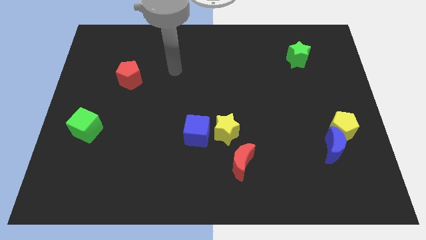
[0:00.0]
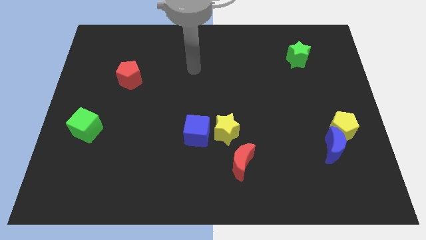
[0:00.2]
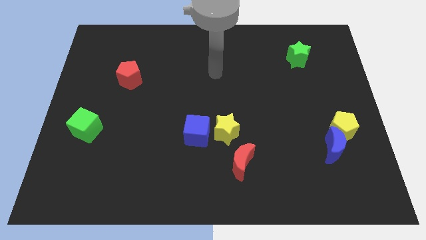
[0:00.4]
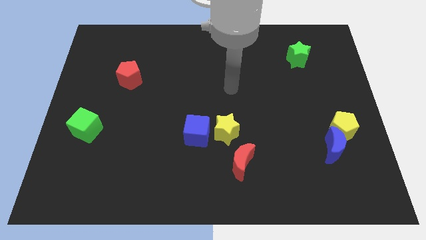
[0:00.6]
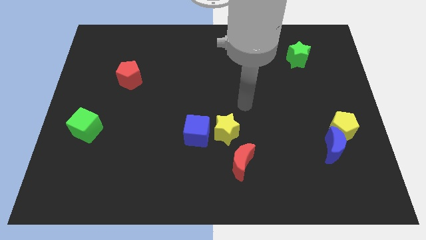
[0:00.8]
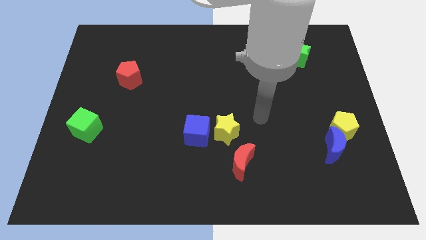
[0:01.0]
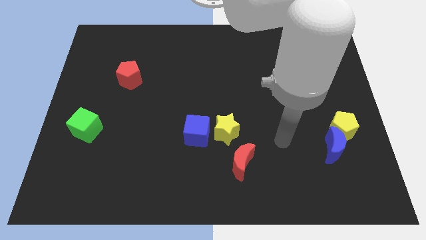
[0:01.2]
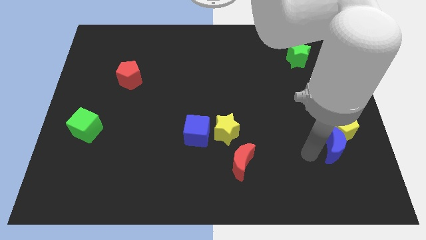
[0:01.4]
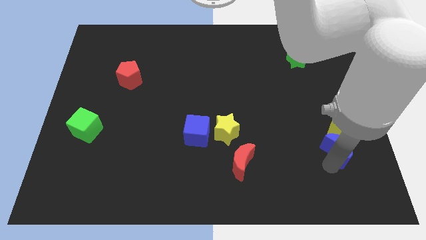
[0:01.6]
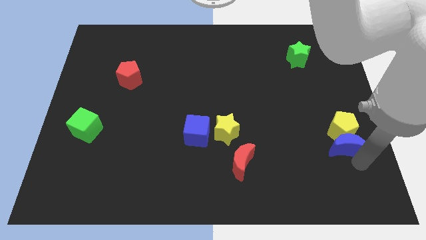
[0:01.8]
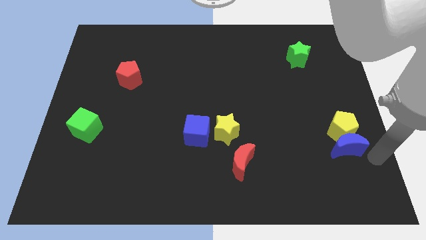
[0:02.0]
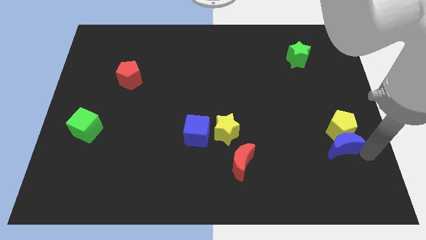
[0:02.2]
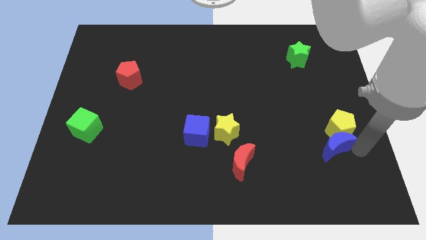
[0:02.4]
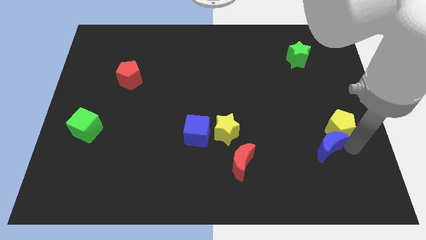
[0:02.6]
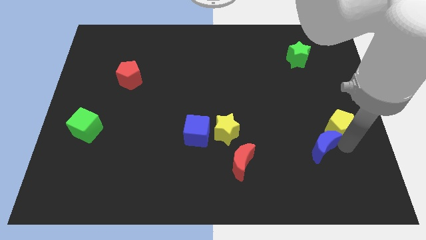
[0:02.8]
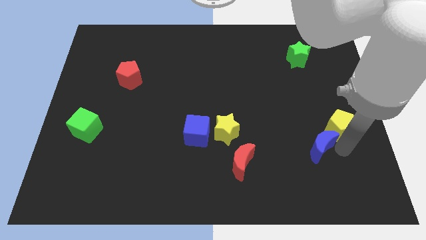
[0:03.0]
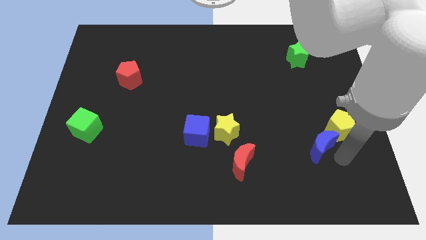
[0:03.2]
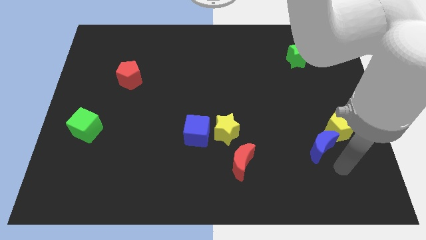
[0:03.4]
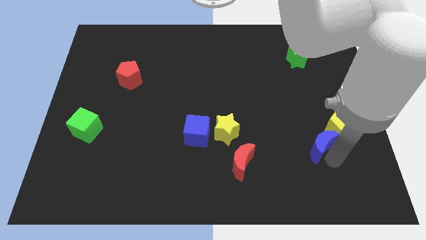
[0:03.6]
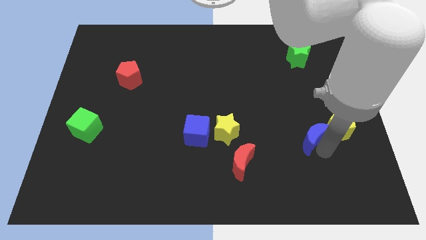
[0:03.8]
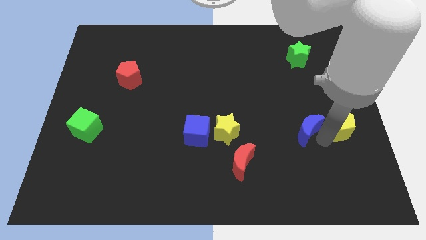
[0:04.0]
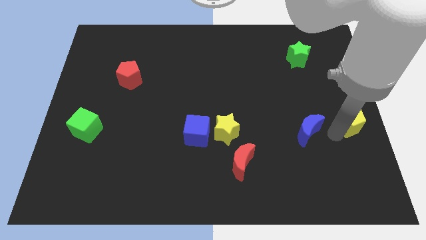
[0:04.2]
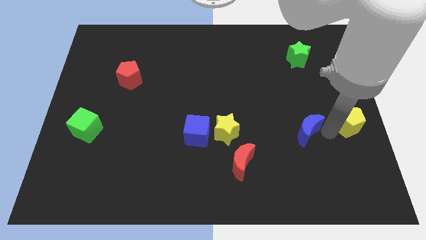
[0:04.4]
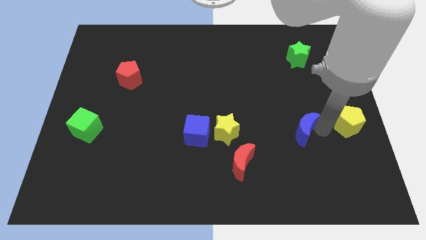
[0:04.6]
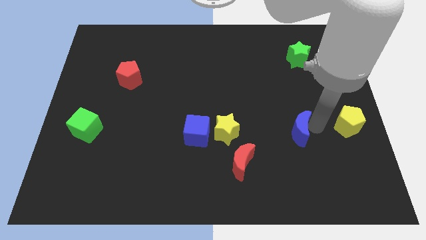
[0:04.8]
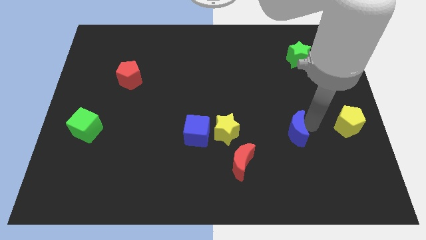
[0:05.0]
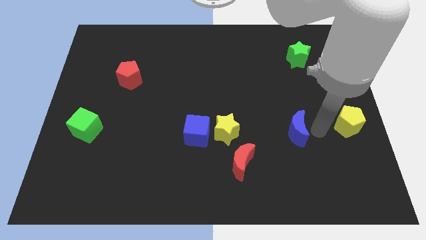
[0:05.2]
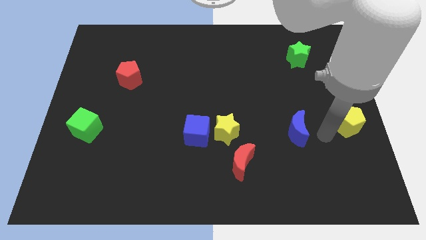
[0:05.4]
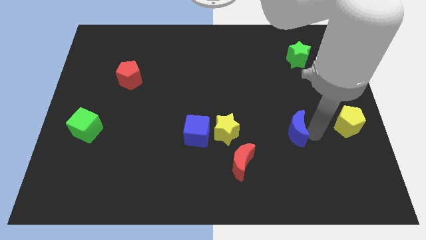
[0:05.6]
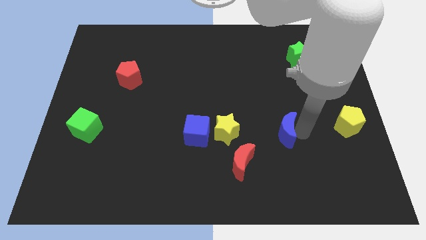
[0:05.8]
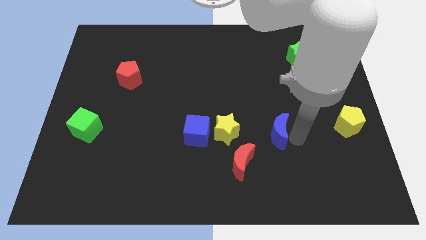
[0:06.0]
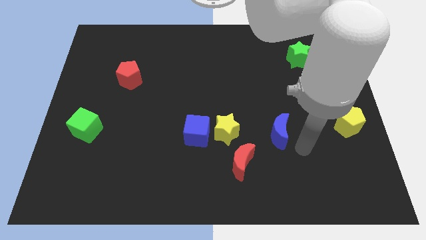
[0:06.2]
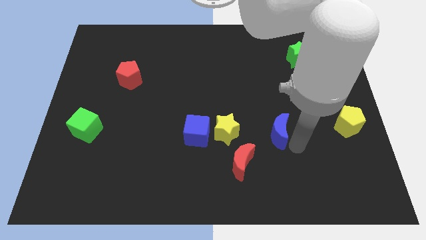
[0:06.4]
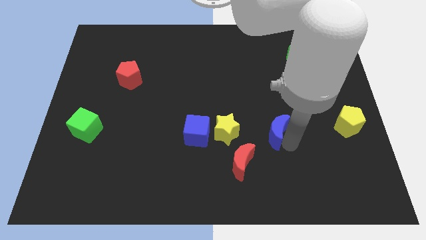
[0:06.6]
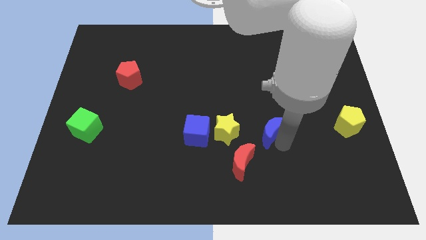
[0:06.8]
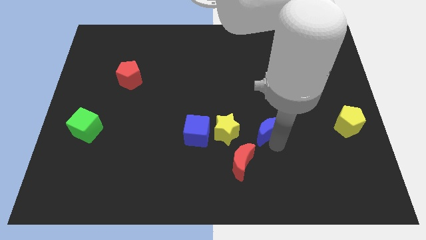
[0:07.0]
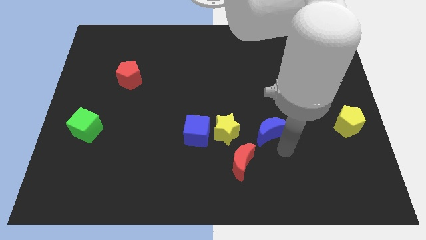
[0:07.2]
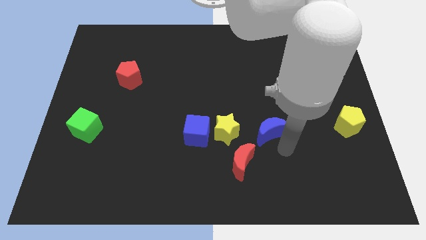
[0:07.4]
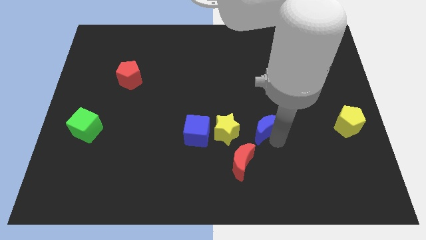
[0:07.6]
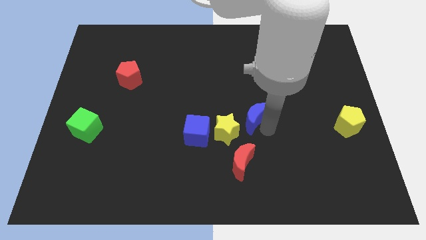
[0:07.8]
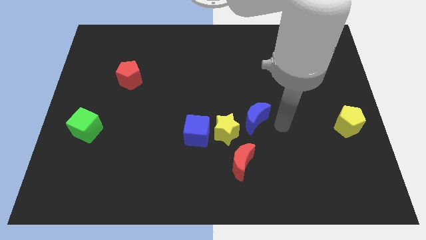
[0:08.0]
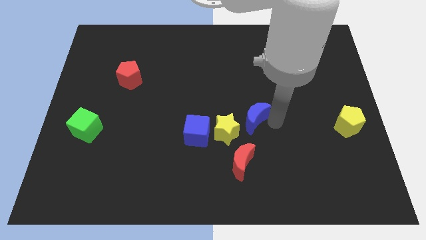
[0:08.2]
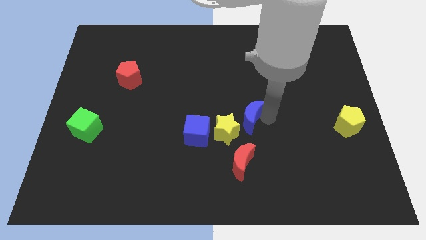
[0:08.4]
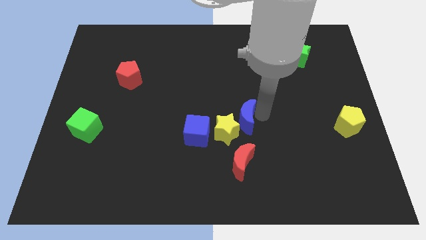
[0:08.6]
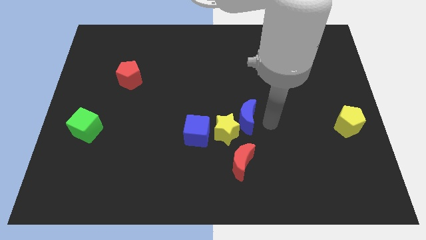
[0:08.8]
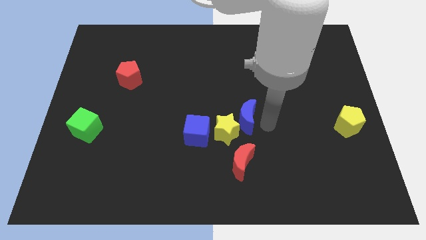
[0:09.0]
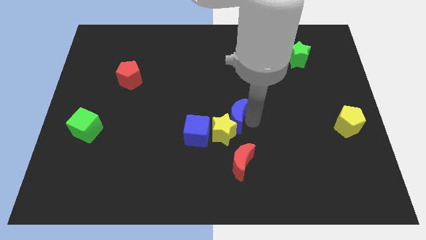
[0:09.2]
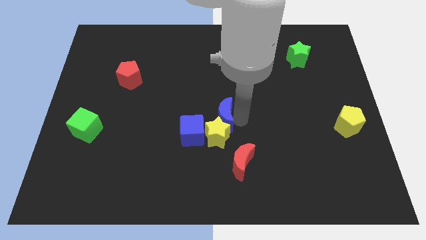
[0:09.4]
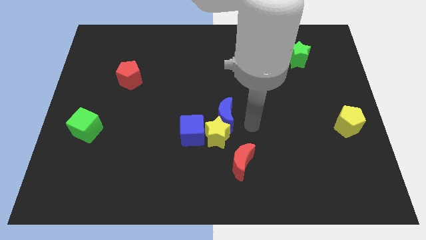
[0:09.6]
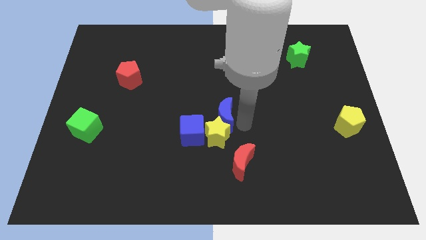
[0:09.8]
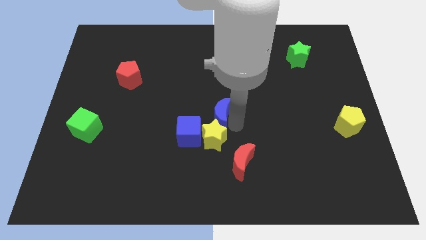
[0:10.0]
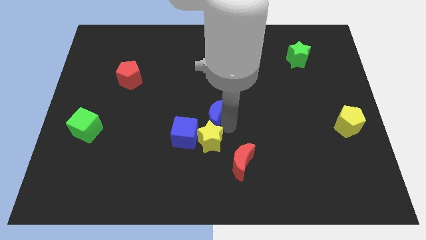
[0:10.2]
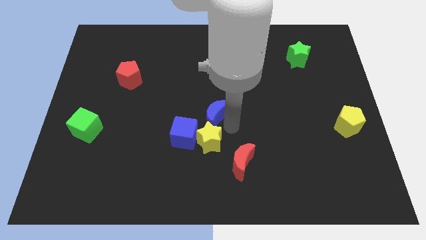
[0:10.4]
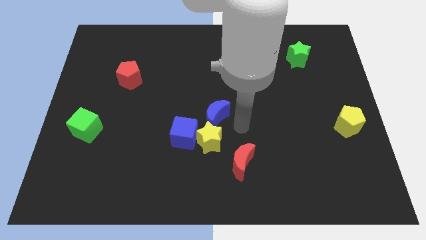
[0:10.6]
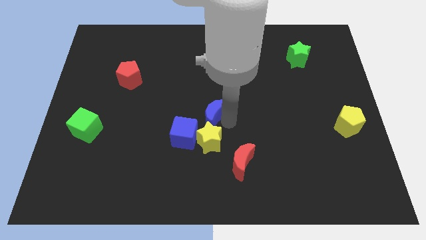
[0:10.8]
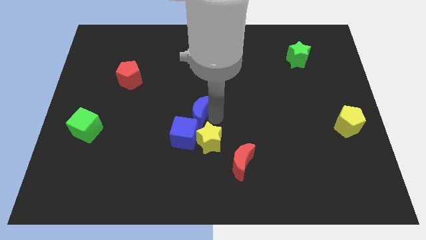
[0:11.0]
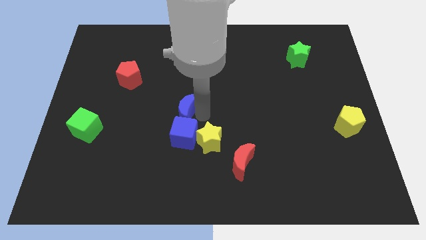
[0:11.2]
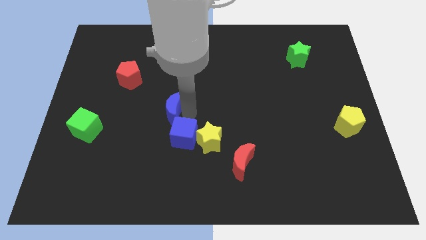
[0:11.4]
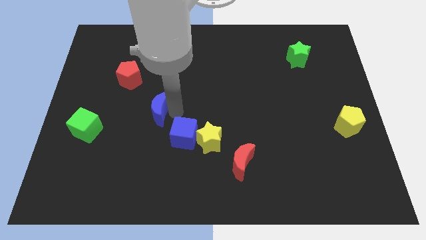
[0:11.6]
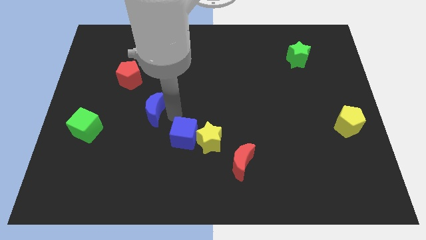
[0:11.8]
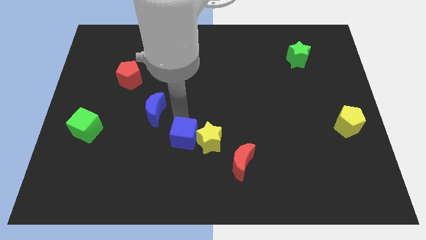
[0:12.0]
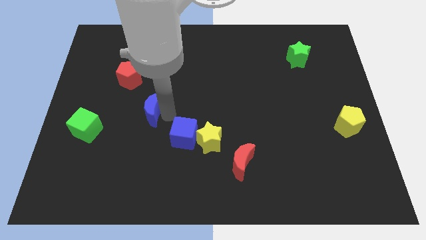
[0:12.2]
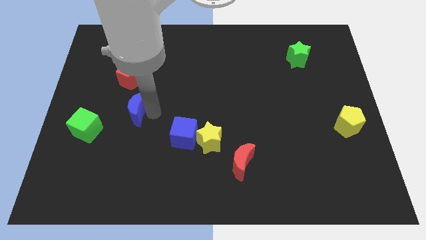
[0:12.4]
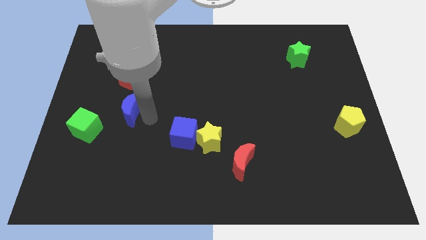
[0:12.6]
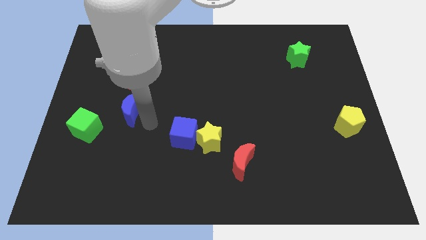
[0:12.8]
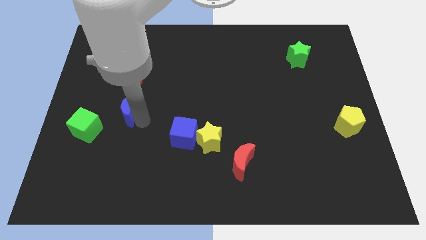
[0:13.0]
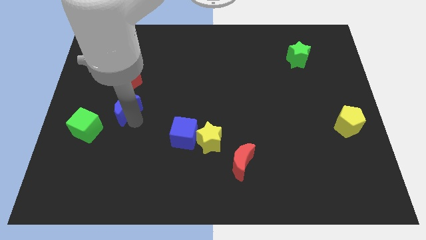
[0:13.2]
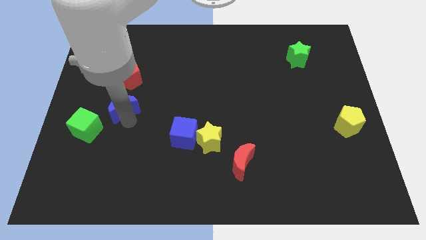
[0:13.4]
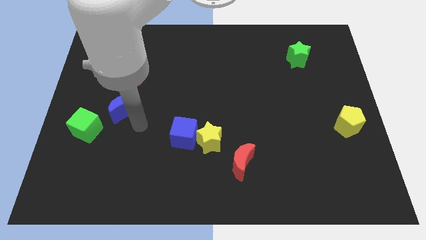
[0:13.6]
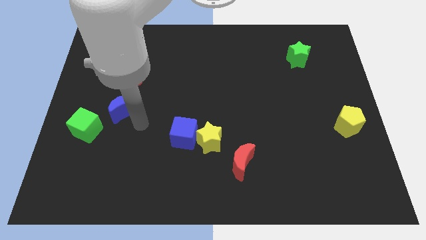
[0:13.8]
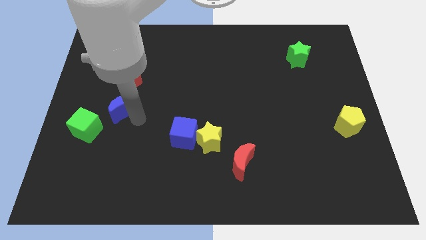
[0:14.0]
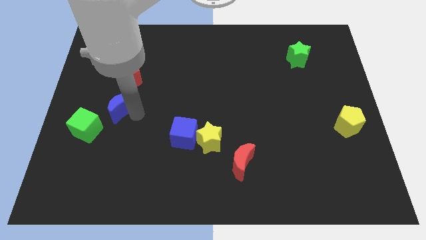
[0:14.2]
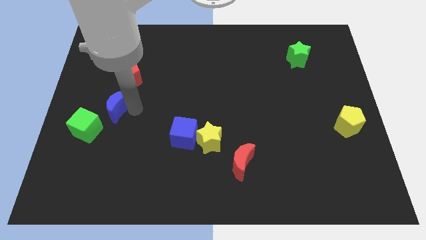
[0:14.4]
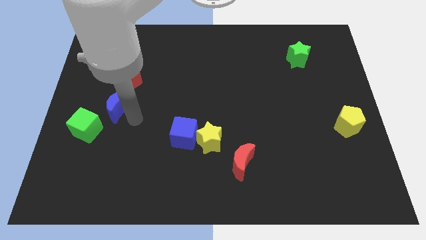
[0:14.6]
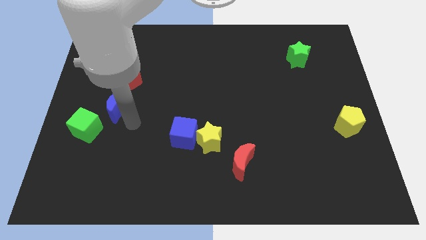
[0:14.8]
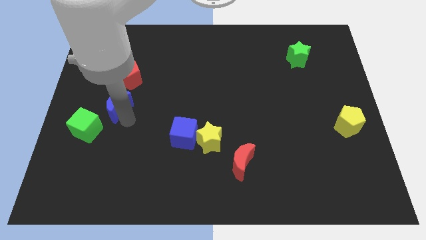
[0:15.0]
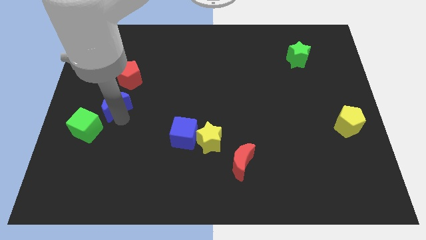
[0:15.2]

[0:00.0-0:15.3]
push the blue moon to the bottom left of the red pentagon
